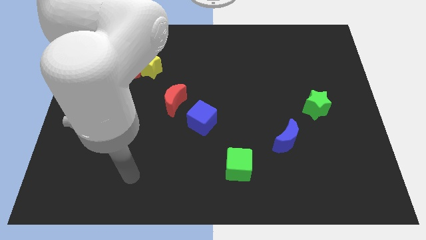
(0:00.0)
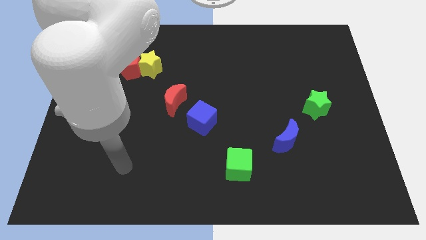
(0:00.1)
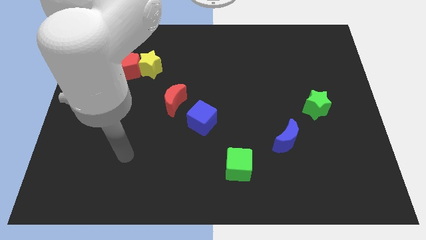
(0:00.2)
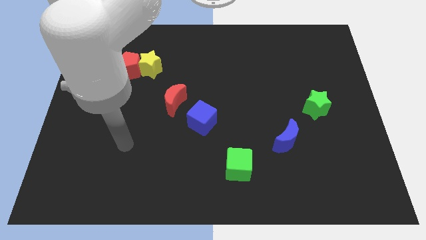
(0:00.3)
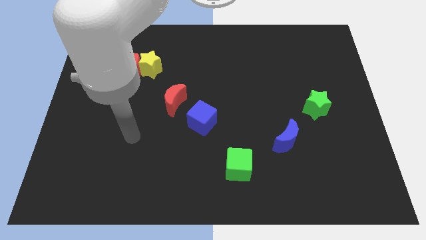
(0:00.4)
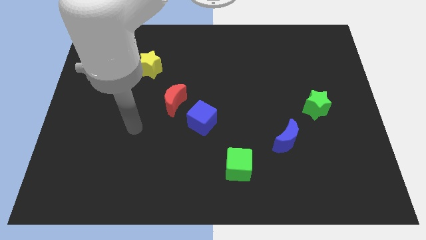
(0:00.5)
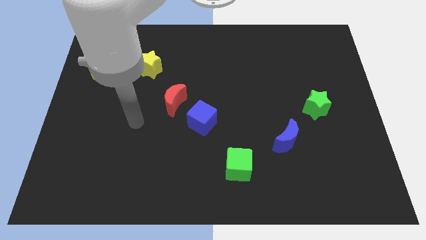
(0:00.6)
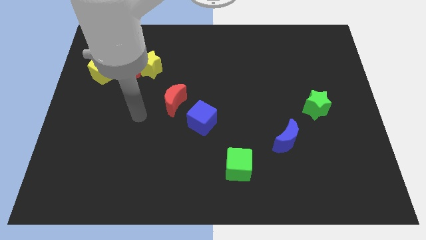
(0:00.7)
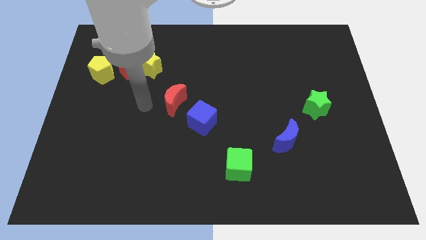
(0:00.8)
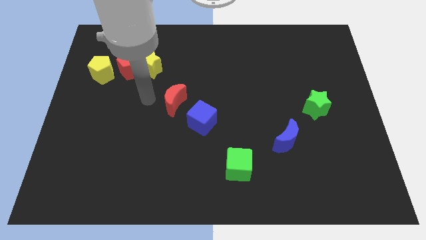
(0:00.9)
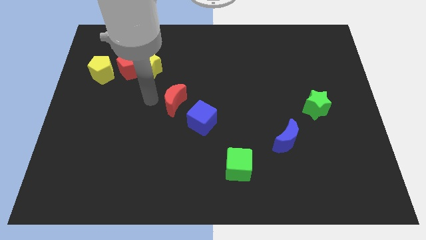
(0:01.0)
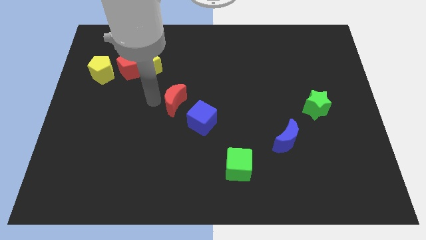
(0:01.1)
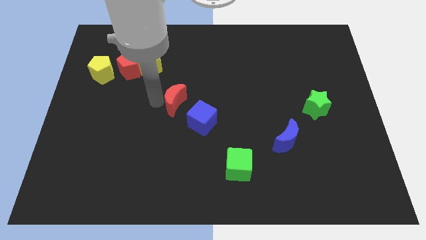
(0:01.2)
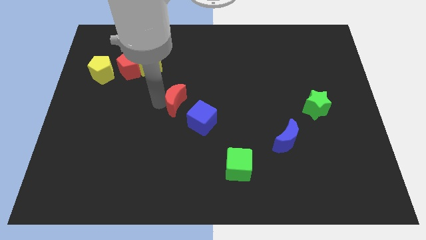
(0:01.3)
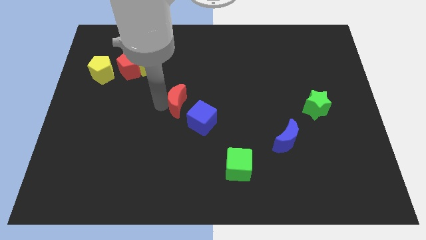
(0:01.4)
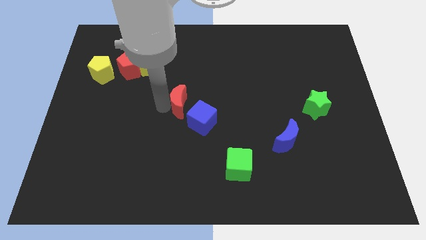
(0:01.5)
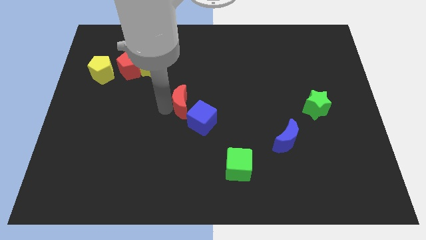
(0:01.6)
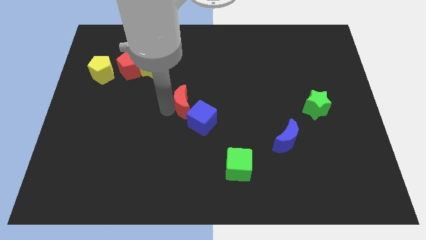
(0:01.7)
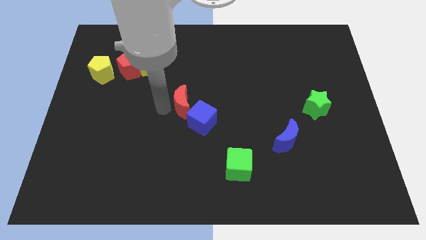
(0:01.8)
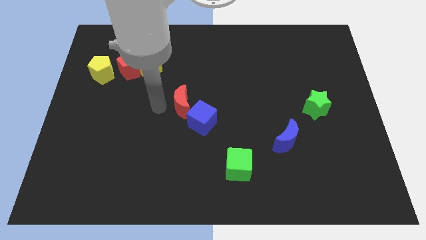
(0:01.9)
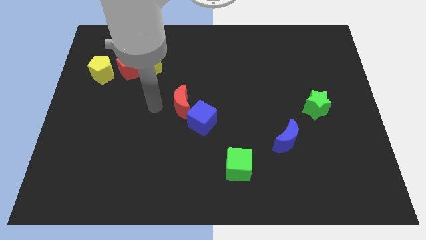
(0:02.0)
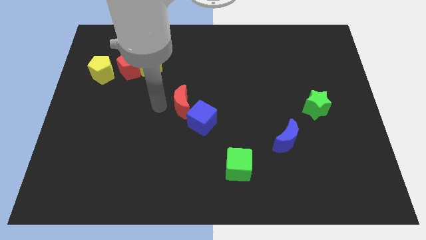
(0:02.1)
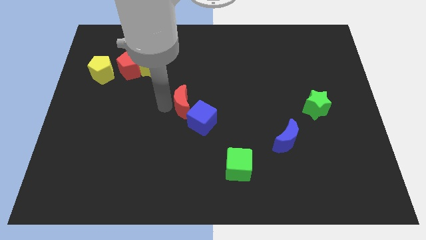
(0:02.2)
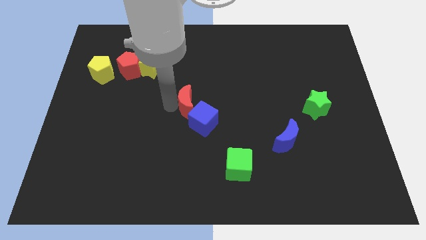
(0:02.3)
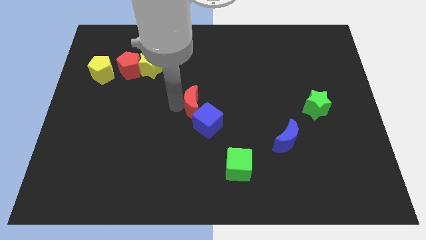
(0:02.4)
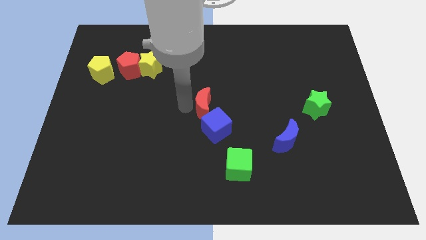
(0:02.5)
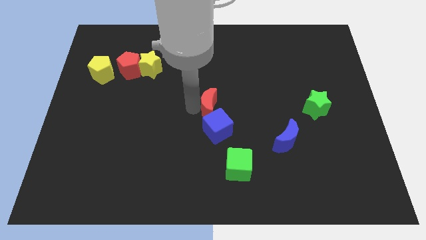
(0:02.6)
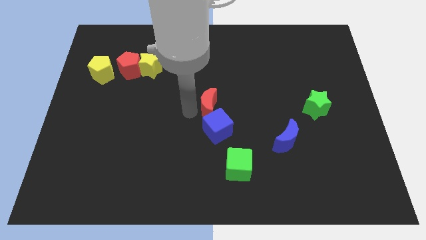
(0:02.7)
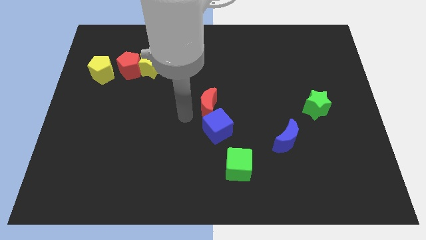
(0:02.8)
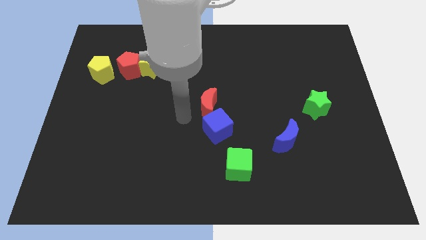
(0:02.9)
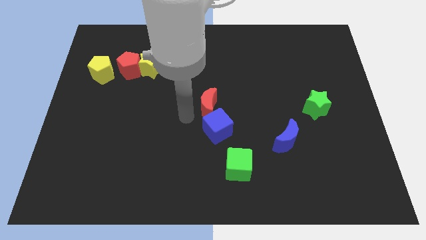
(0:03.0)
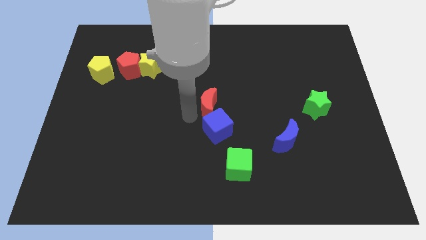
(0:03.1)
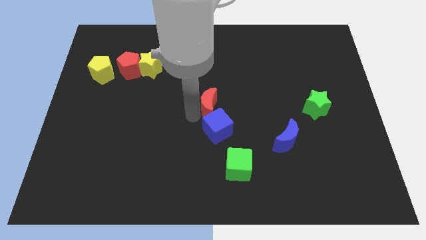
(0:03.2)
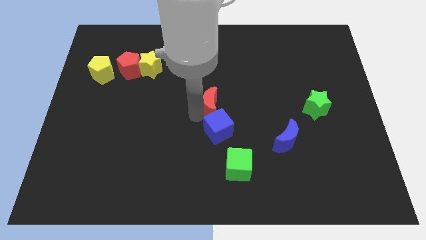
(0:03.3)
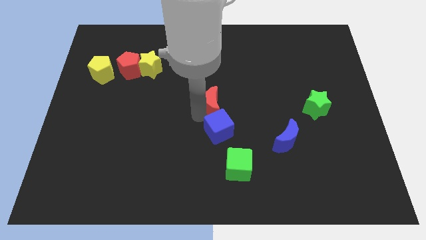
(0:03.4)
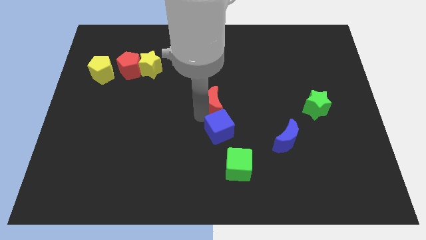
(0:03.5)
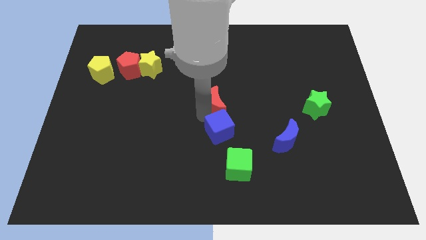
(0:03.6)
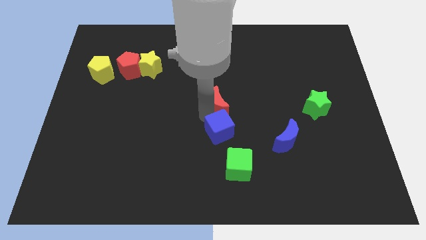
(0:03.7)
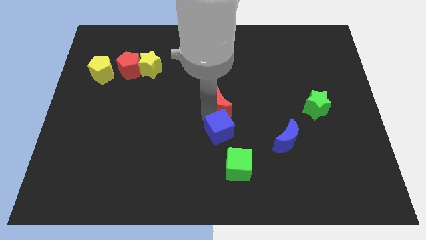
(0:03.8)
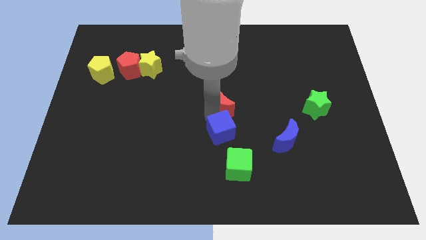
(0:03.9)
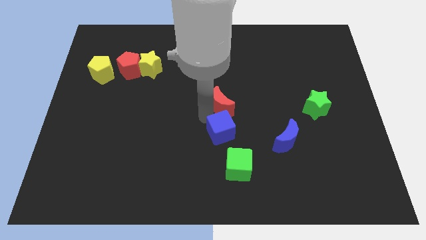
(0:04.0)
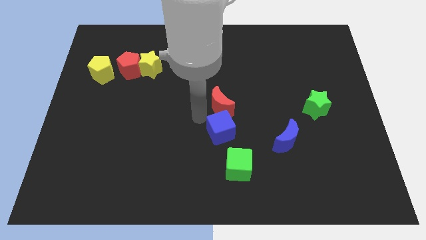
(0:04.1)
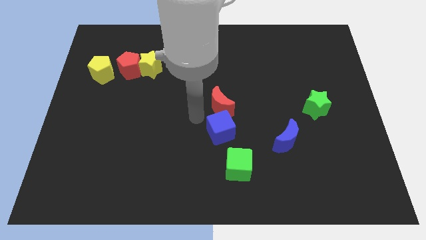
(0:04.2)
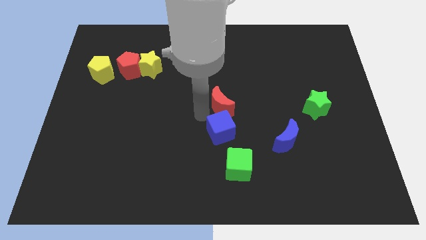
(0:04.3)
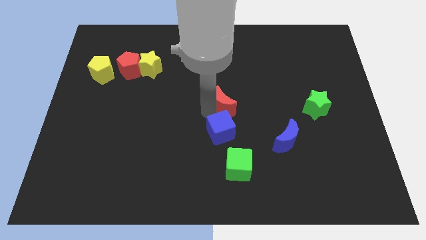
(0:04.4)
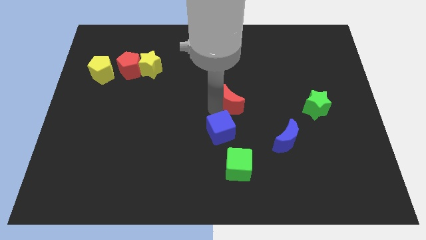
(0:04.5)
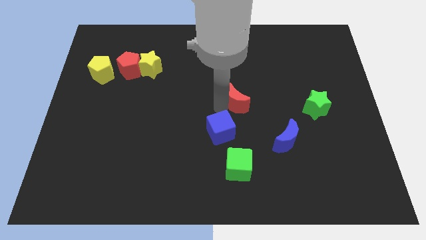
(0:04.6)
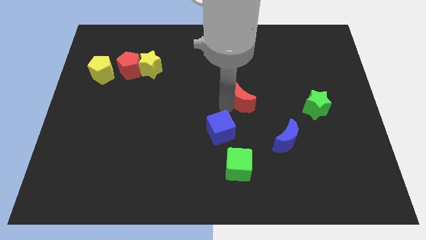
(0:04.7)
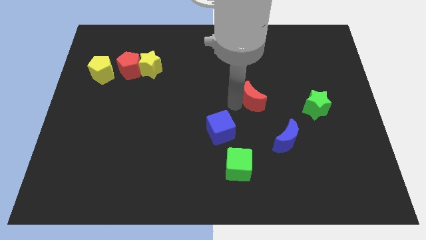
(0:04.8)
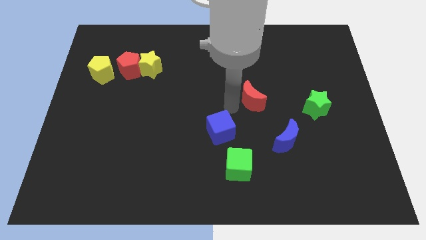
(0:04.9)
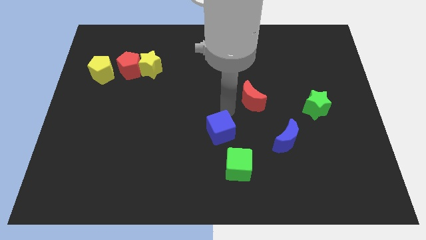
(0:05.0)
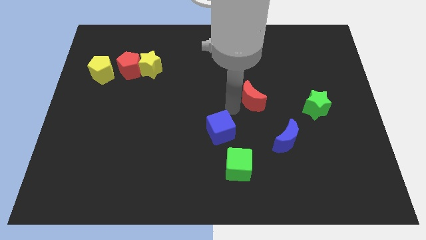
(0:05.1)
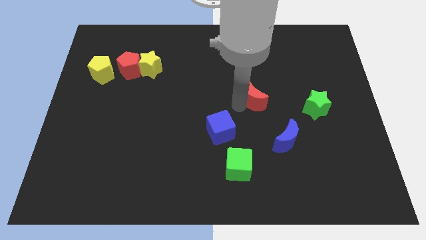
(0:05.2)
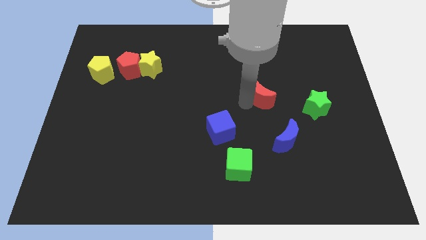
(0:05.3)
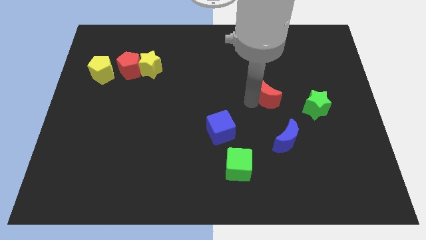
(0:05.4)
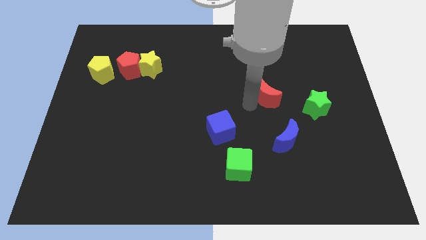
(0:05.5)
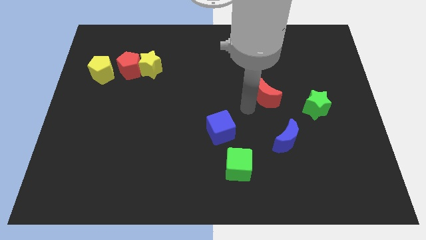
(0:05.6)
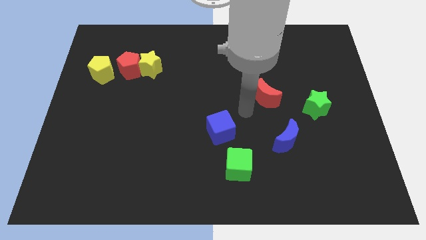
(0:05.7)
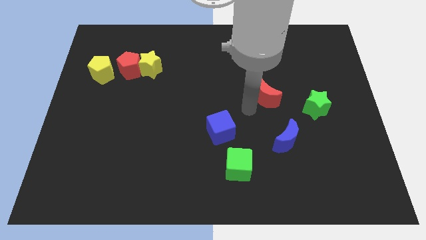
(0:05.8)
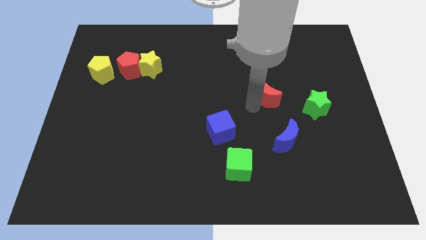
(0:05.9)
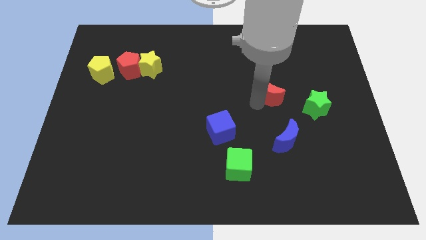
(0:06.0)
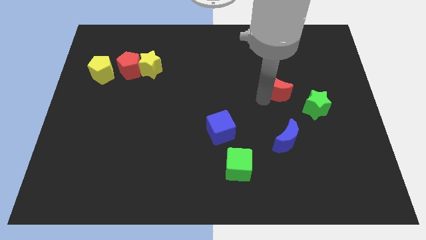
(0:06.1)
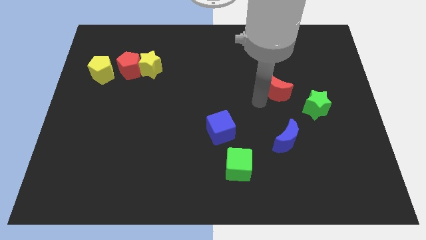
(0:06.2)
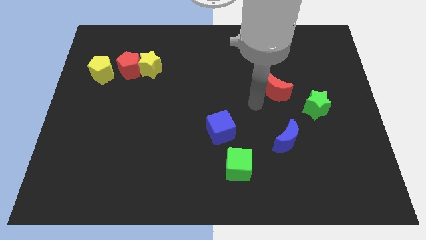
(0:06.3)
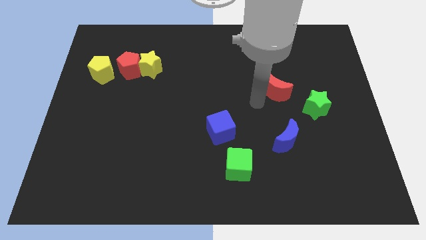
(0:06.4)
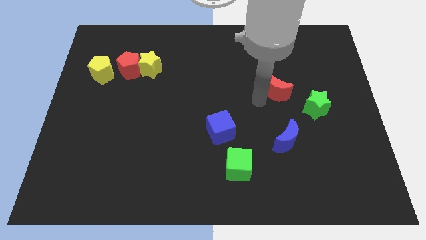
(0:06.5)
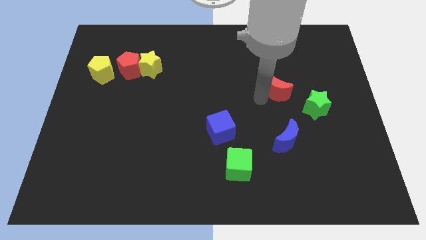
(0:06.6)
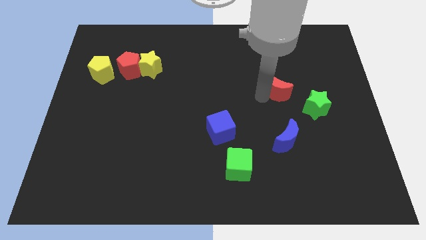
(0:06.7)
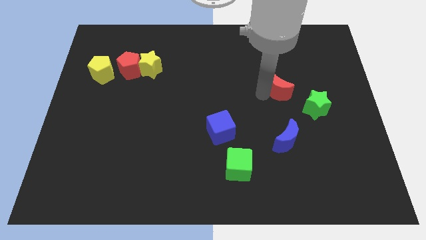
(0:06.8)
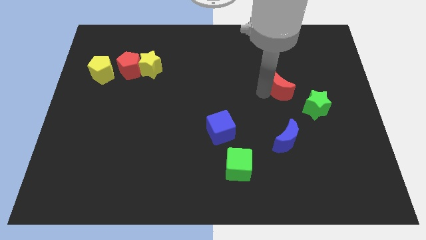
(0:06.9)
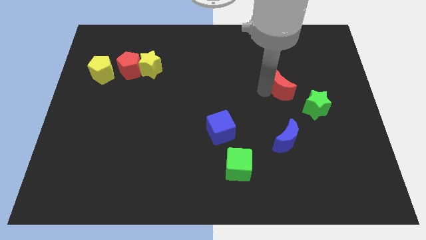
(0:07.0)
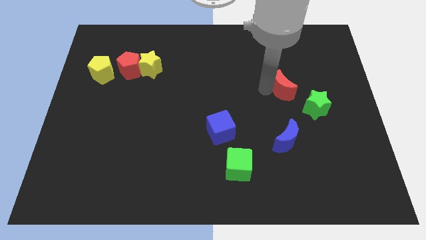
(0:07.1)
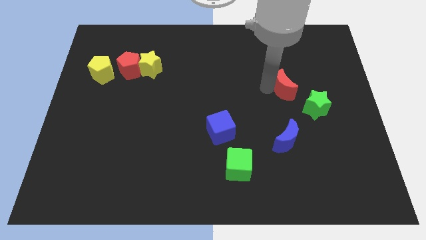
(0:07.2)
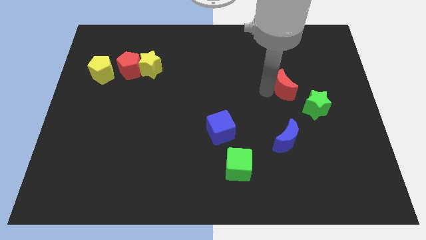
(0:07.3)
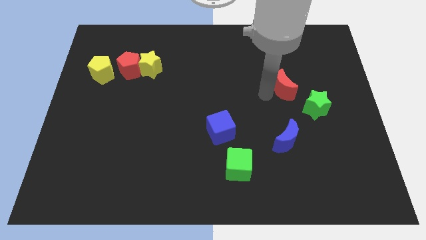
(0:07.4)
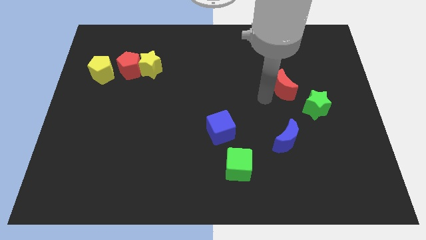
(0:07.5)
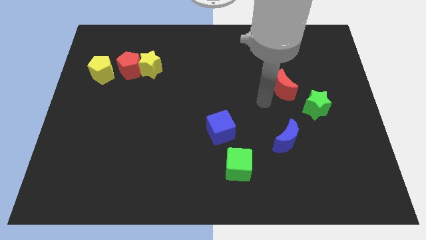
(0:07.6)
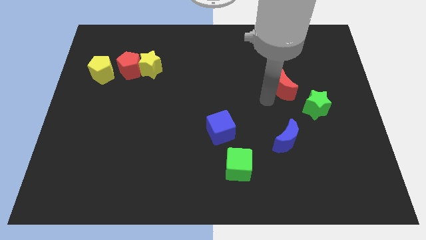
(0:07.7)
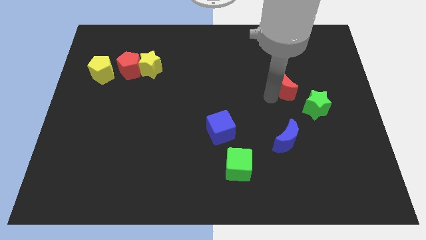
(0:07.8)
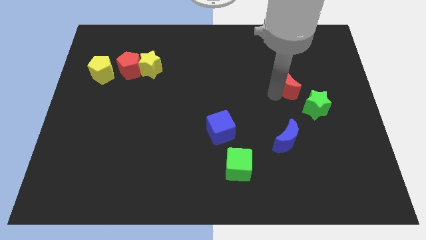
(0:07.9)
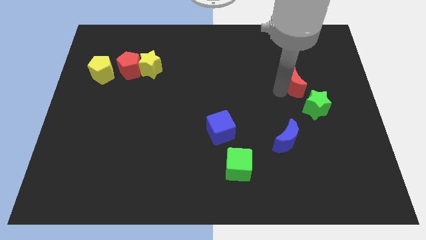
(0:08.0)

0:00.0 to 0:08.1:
push the red moon above the green star
